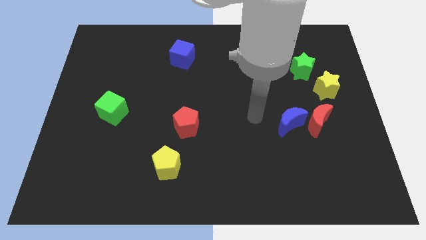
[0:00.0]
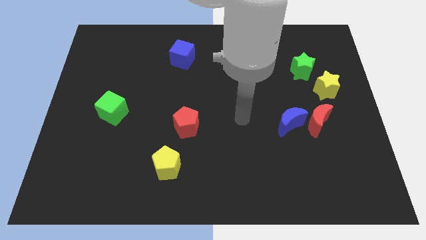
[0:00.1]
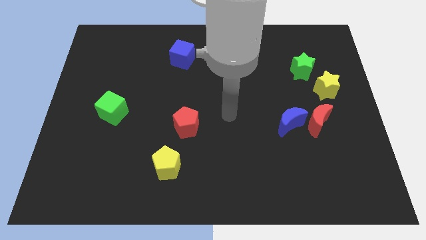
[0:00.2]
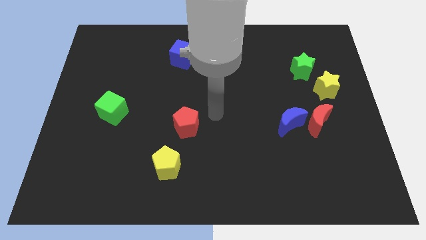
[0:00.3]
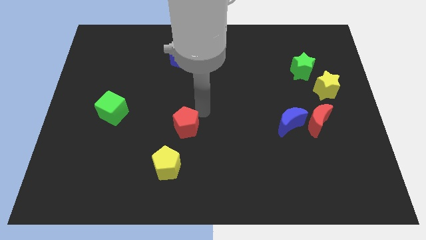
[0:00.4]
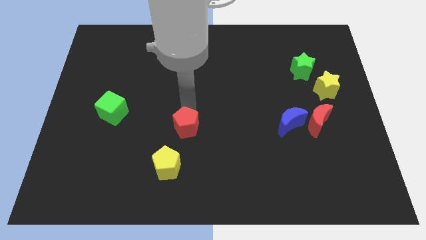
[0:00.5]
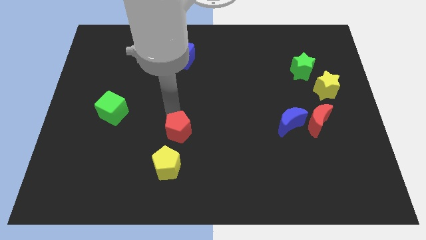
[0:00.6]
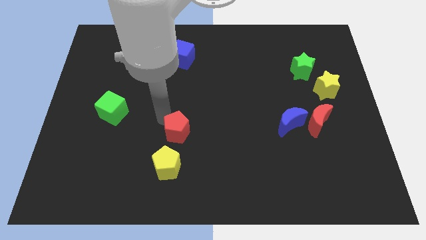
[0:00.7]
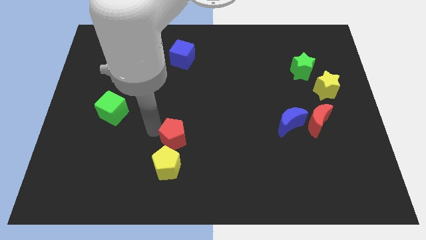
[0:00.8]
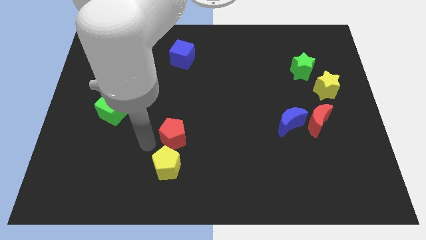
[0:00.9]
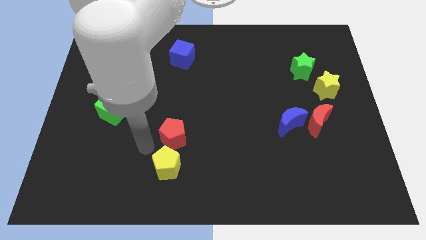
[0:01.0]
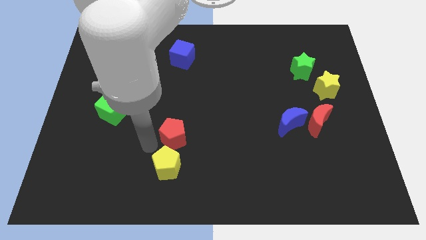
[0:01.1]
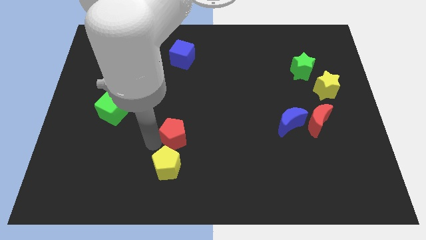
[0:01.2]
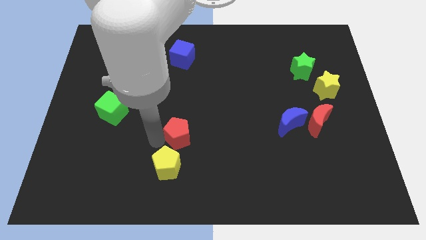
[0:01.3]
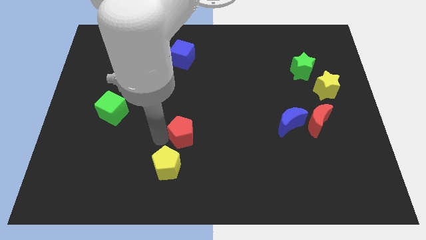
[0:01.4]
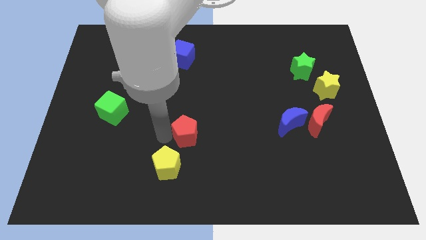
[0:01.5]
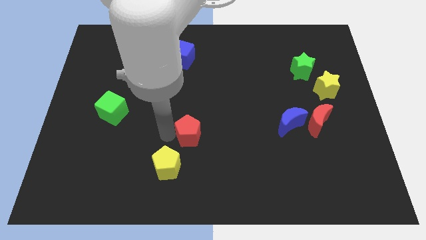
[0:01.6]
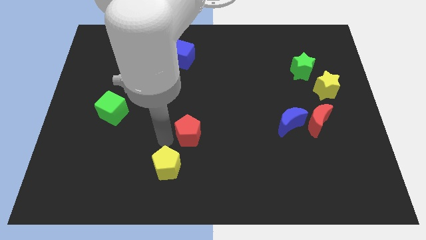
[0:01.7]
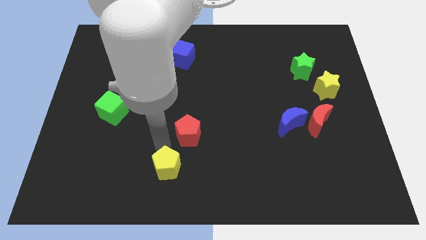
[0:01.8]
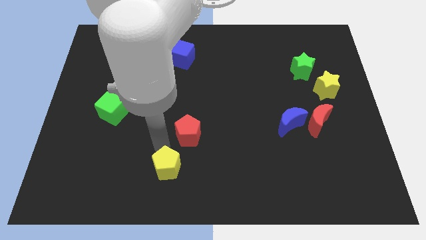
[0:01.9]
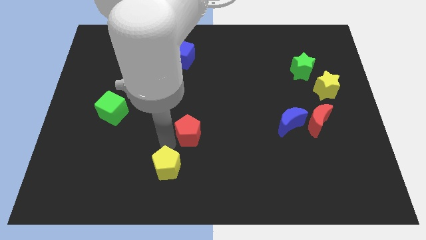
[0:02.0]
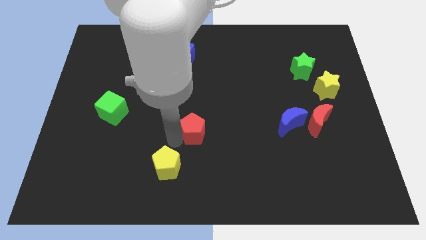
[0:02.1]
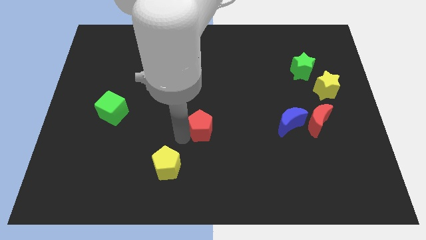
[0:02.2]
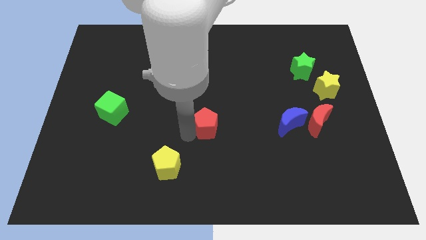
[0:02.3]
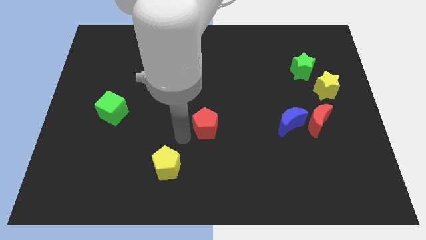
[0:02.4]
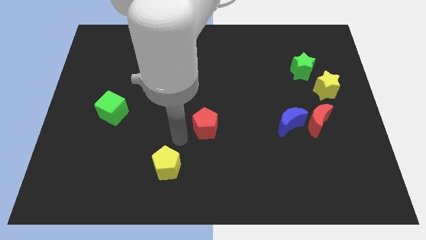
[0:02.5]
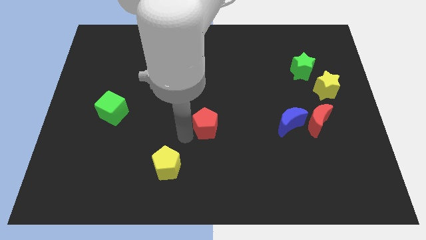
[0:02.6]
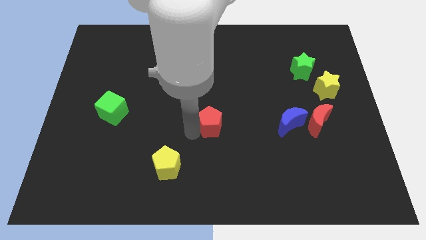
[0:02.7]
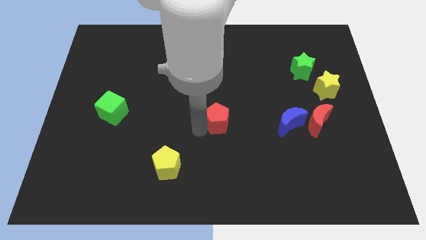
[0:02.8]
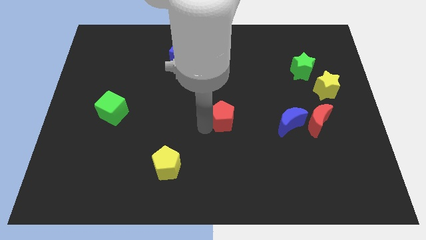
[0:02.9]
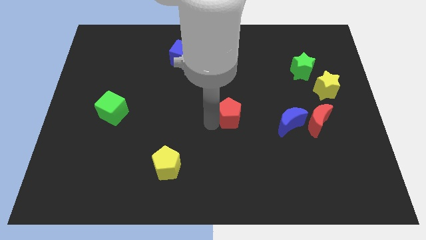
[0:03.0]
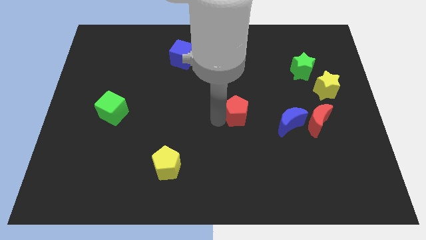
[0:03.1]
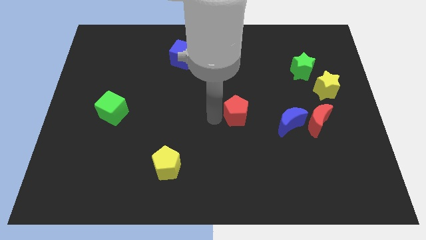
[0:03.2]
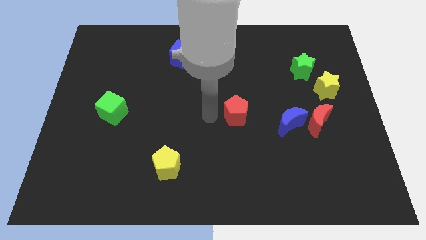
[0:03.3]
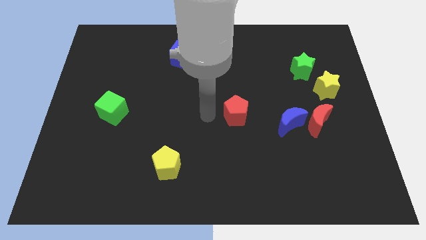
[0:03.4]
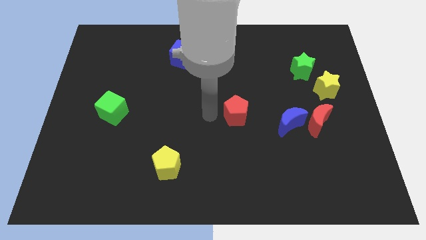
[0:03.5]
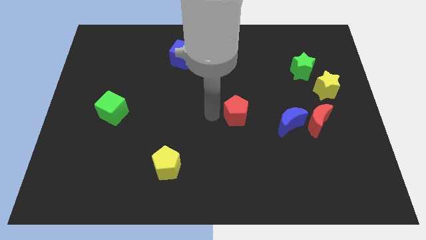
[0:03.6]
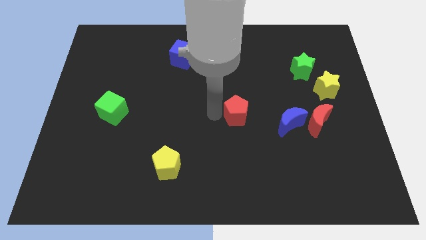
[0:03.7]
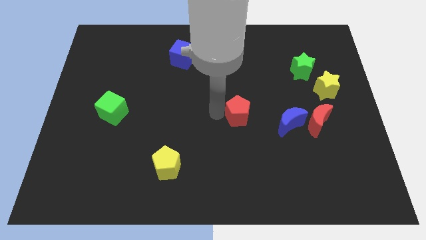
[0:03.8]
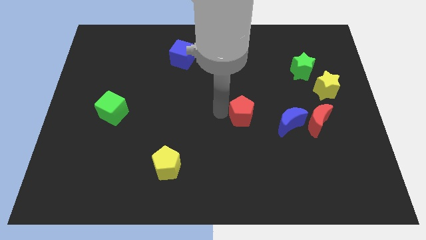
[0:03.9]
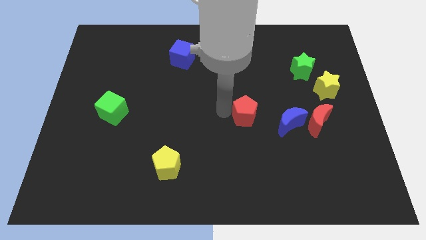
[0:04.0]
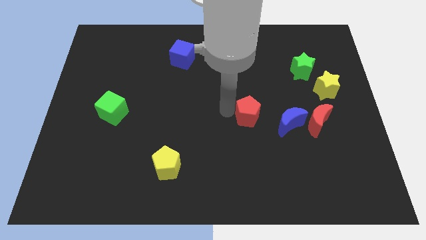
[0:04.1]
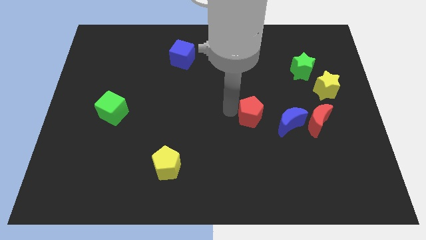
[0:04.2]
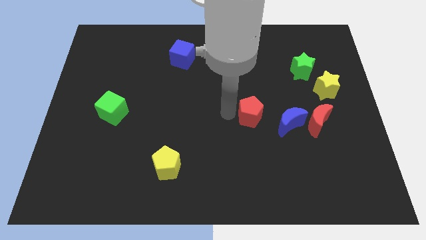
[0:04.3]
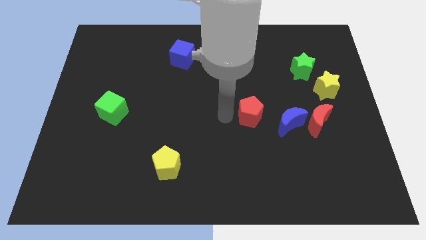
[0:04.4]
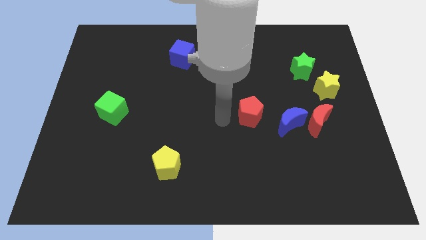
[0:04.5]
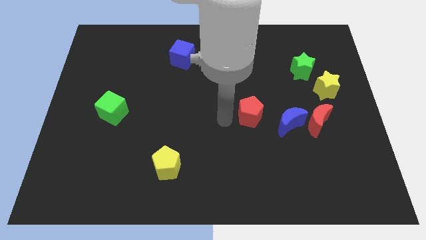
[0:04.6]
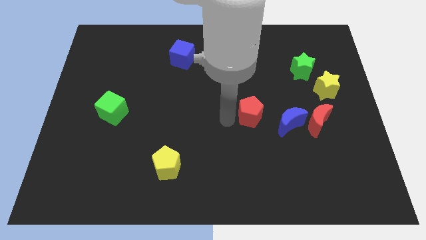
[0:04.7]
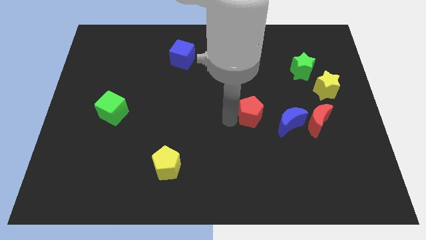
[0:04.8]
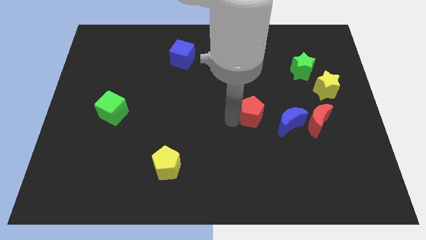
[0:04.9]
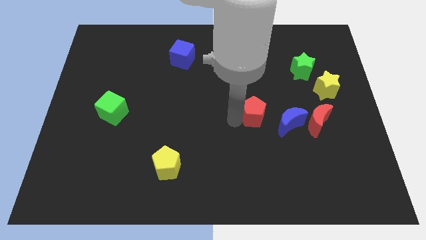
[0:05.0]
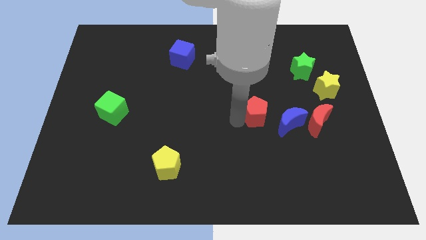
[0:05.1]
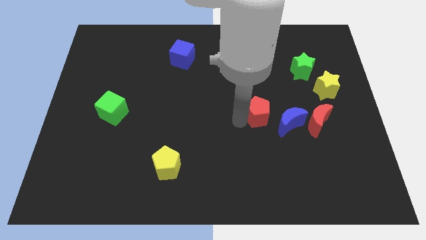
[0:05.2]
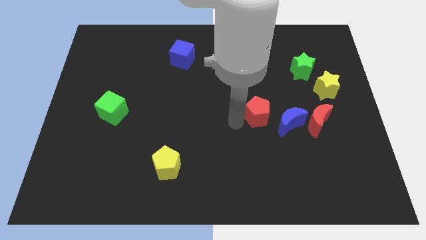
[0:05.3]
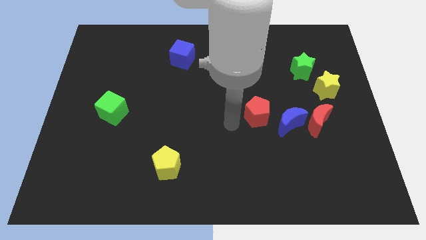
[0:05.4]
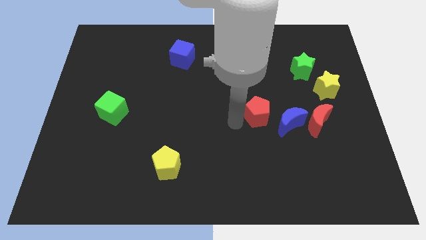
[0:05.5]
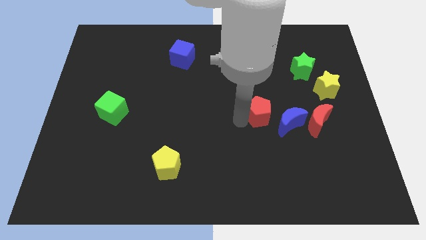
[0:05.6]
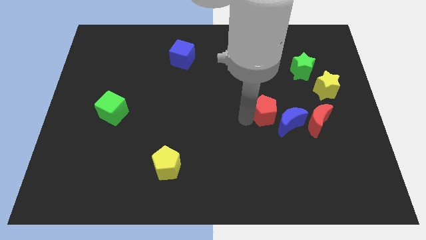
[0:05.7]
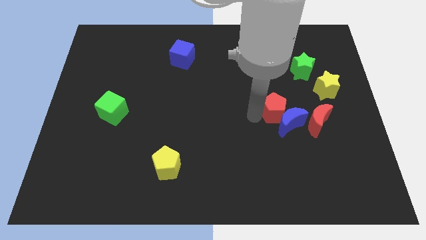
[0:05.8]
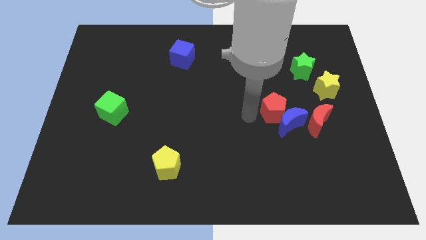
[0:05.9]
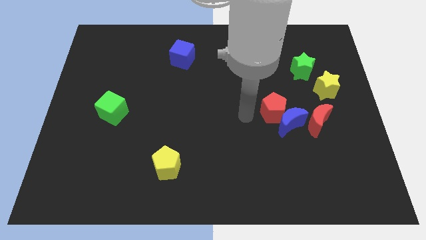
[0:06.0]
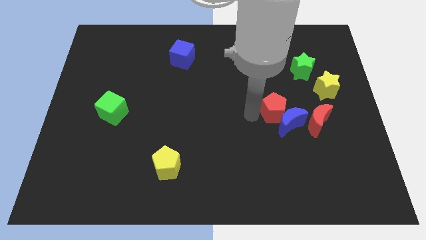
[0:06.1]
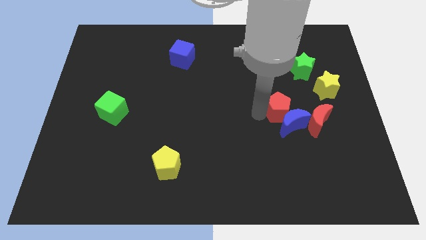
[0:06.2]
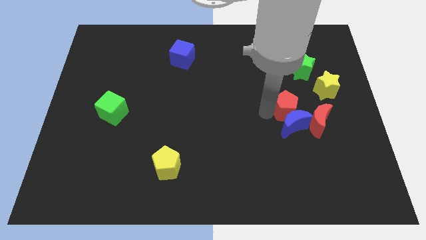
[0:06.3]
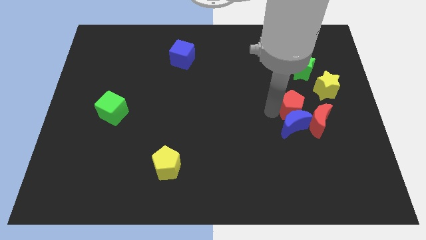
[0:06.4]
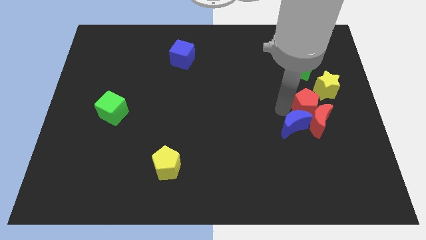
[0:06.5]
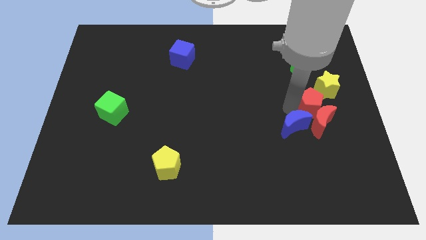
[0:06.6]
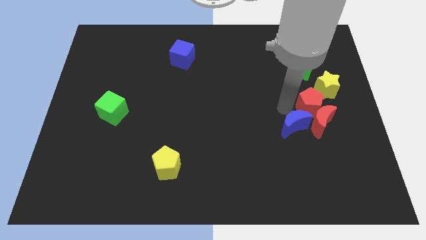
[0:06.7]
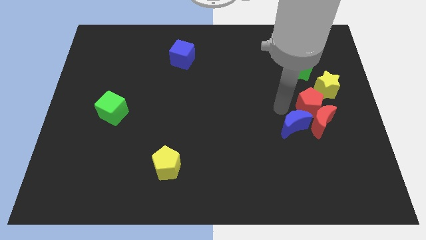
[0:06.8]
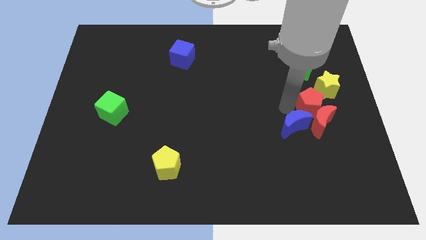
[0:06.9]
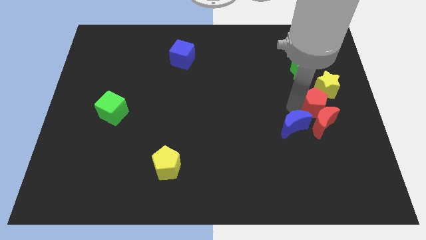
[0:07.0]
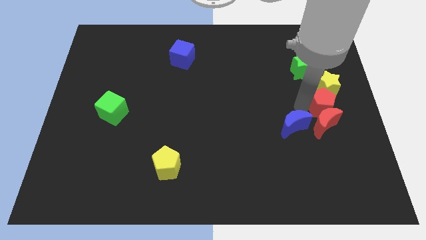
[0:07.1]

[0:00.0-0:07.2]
put the red pentagon to the center right
